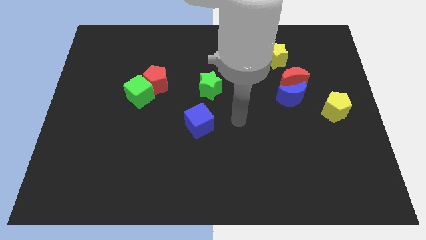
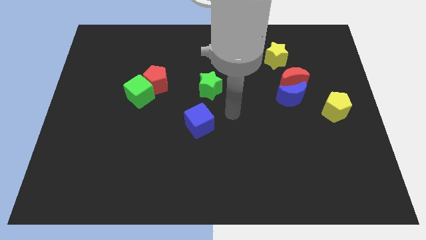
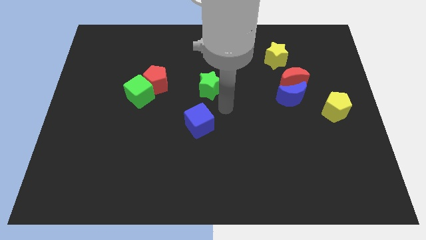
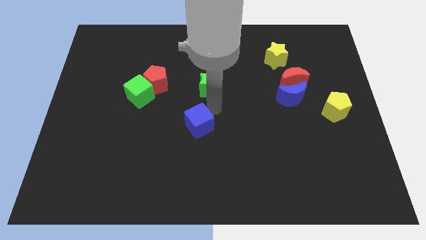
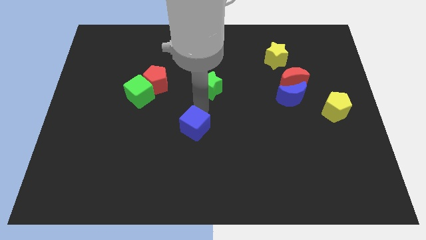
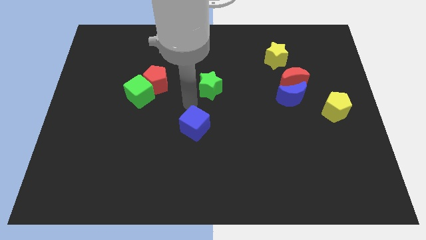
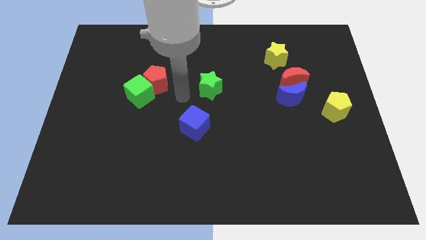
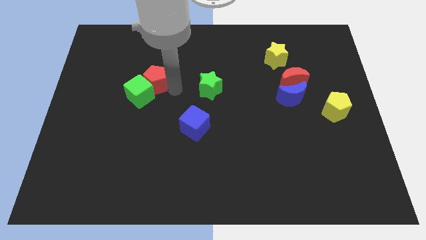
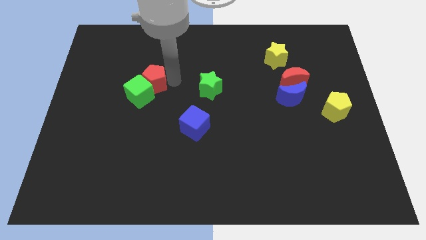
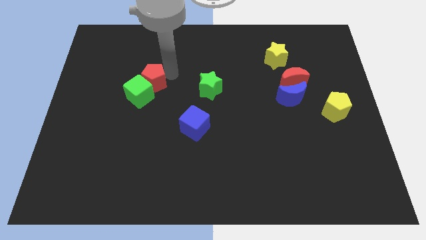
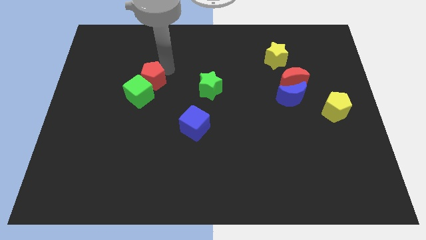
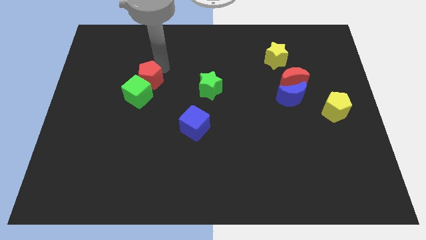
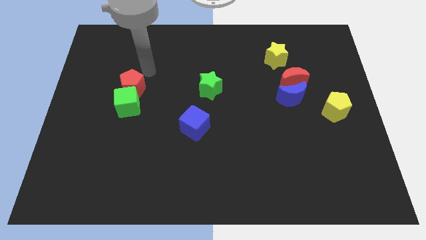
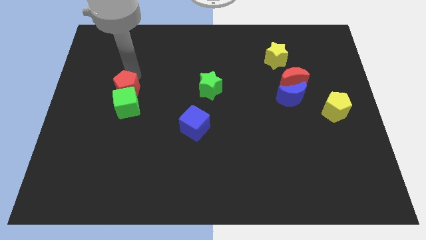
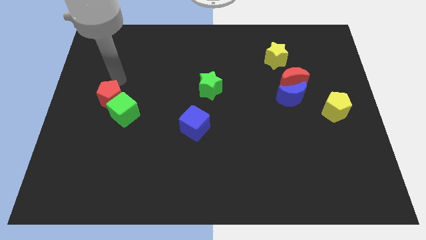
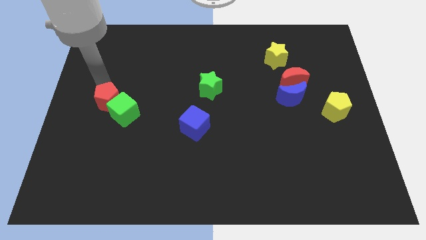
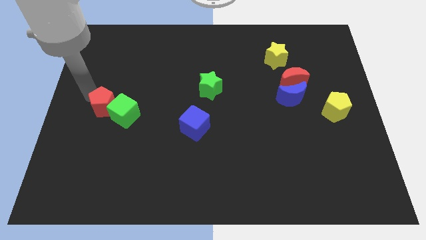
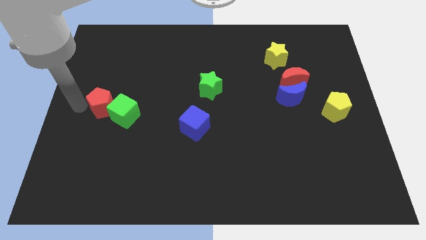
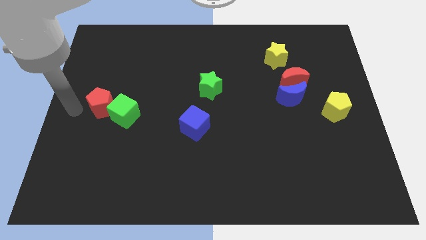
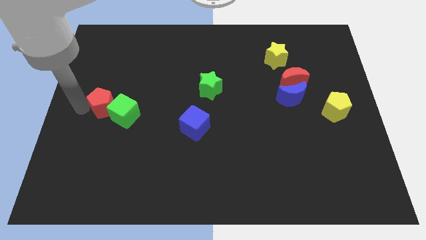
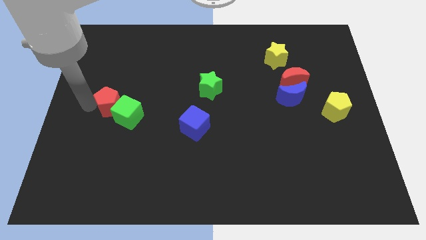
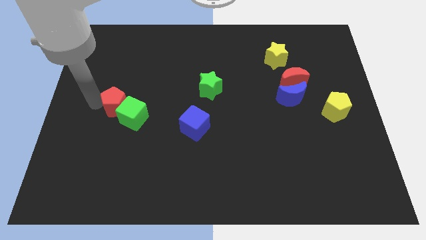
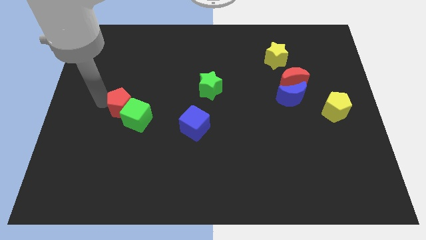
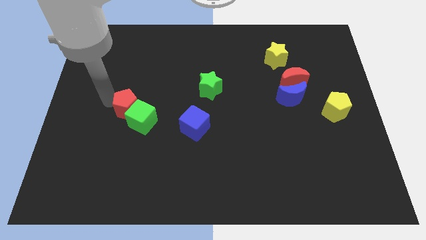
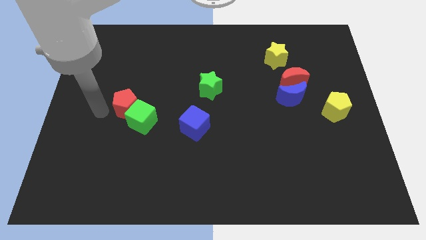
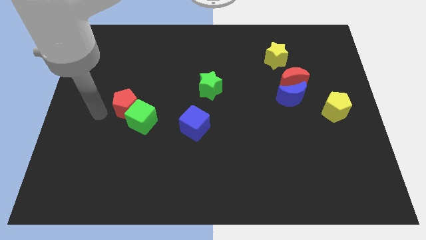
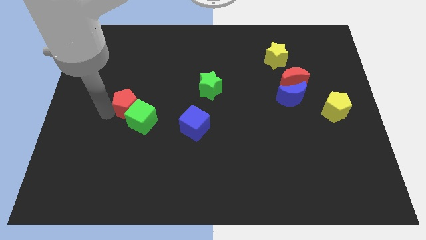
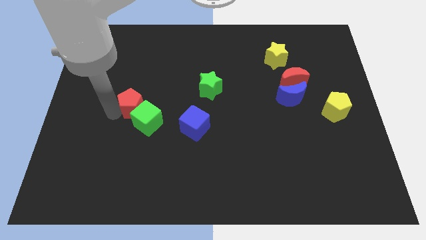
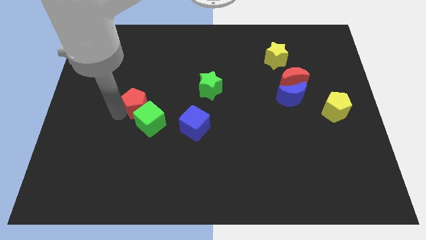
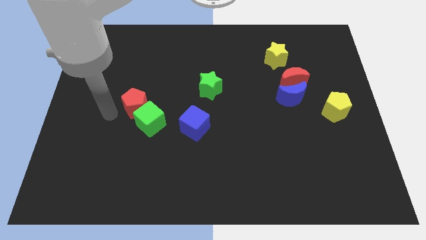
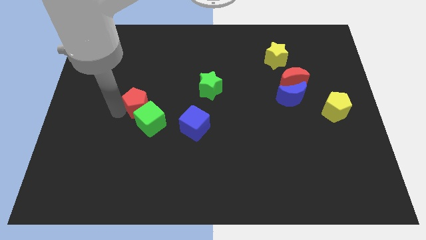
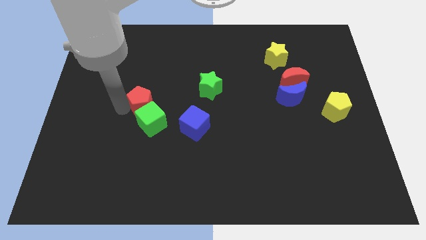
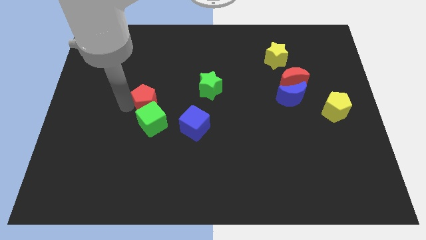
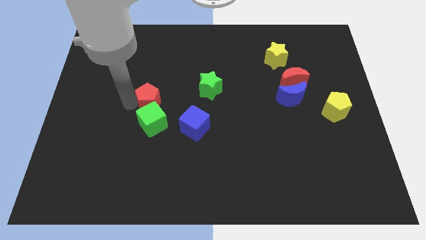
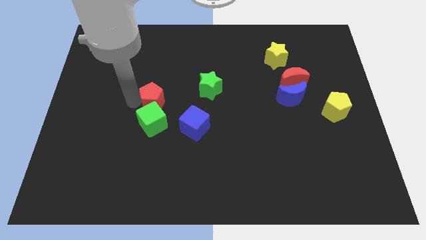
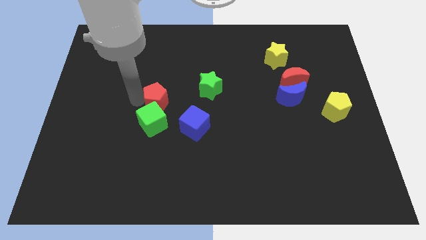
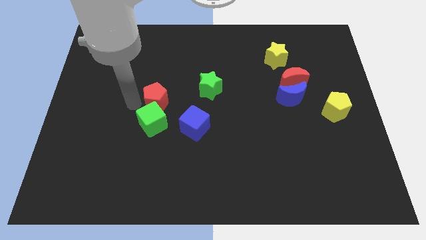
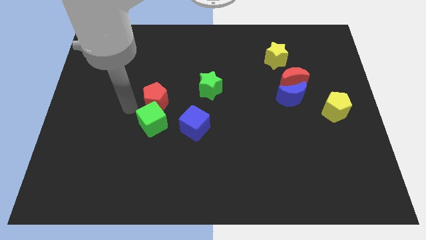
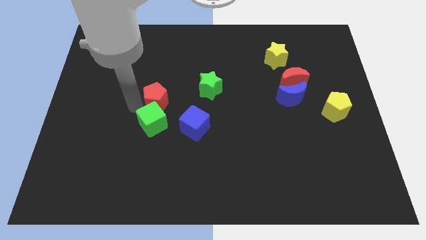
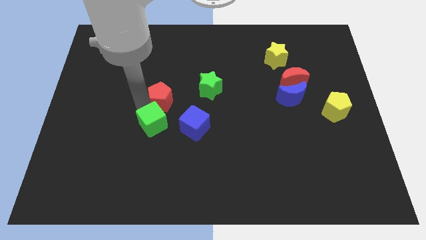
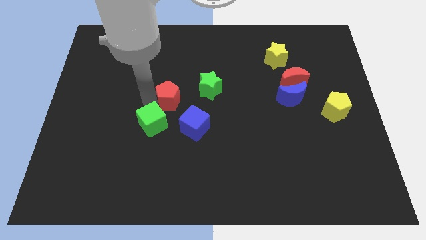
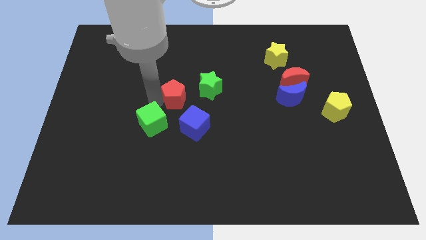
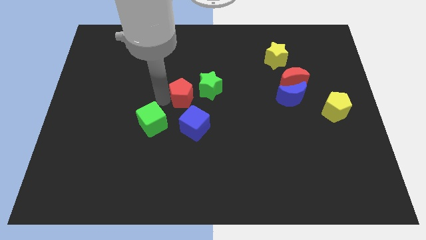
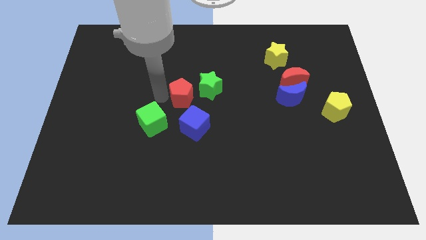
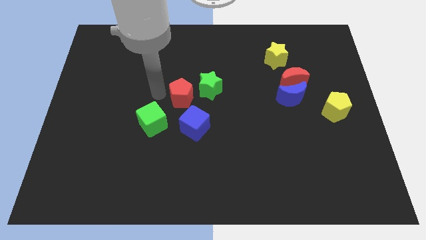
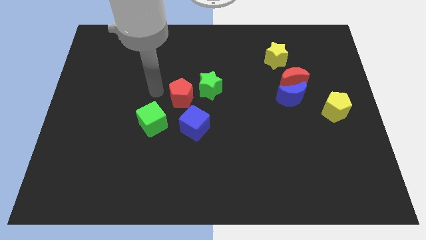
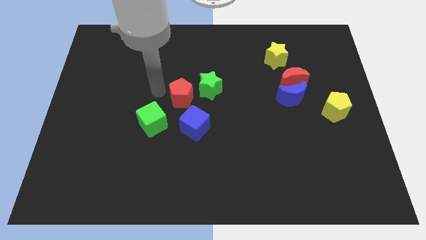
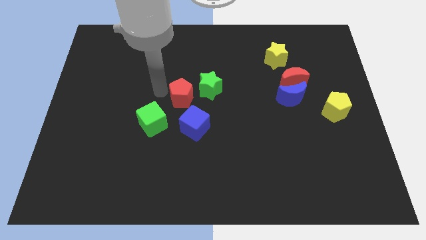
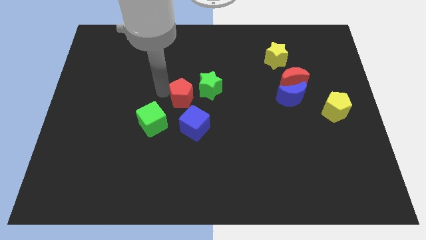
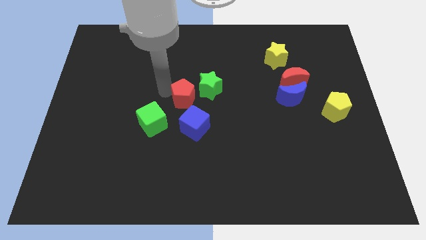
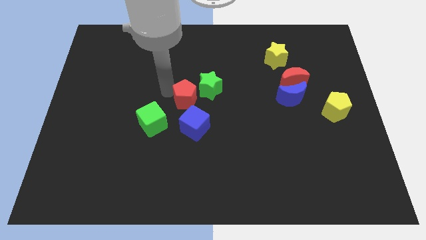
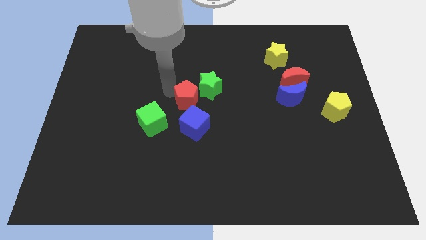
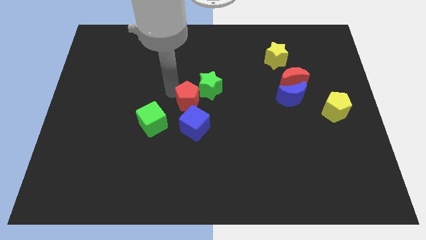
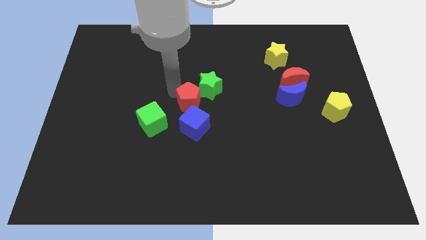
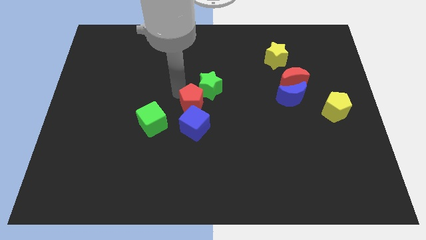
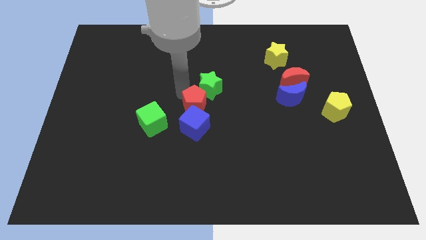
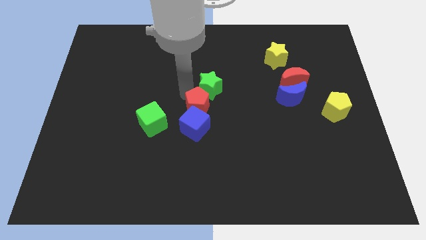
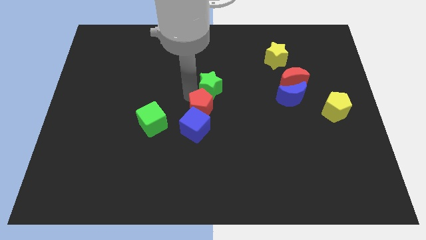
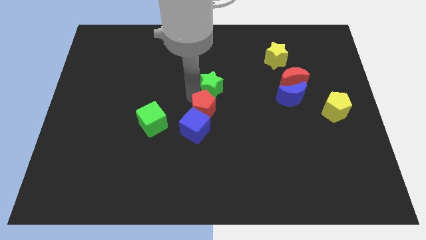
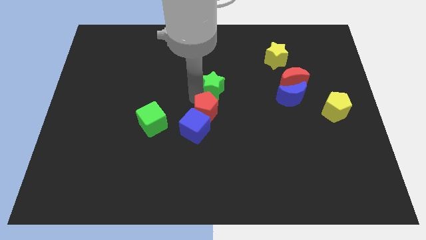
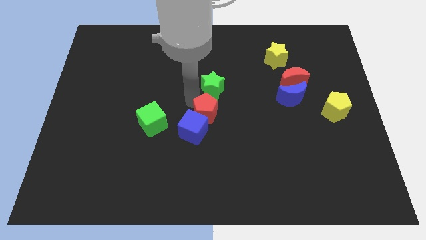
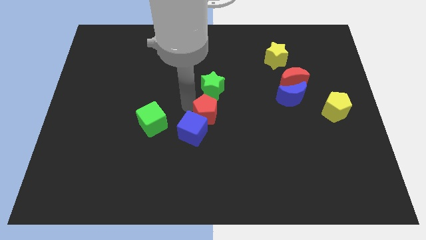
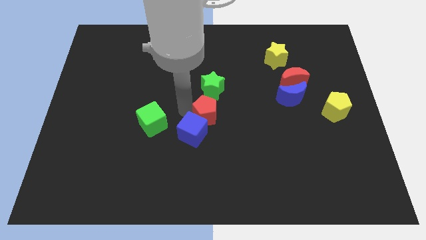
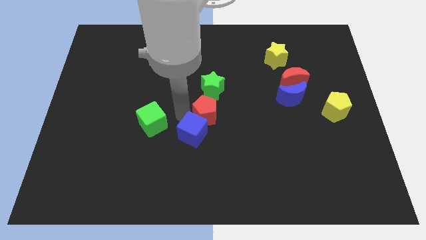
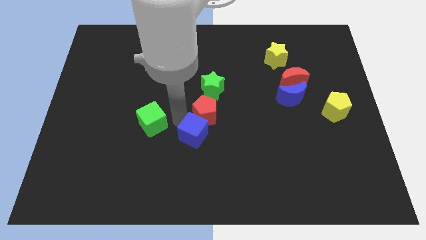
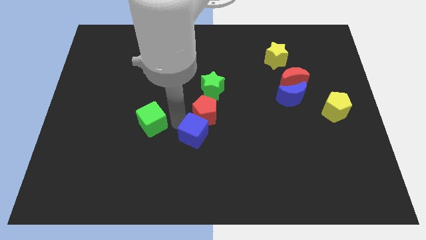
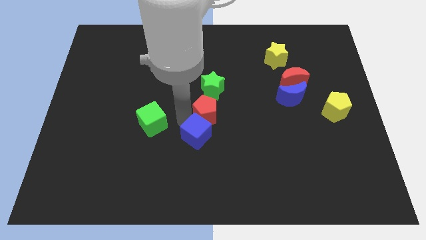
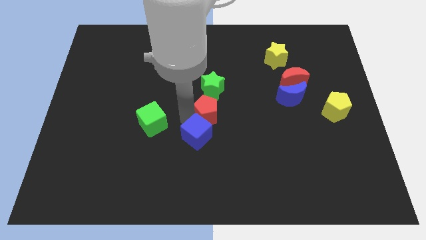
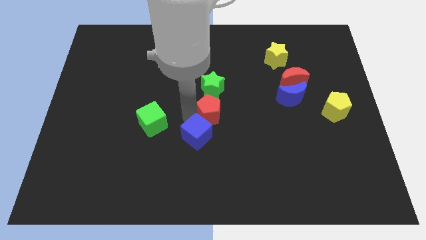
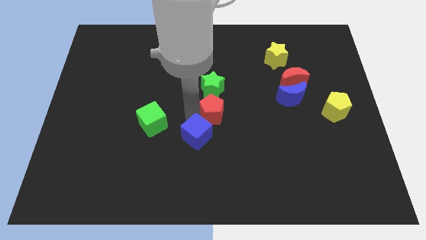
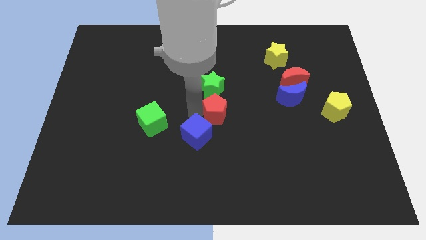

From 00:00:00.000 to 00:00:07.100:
slide the red pentagon diagonally down and to the right of the green star

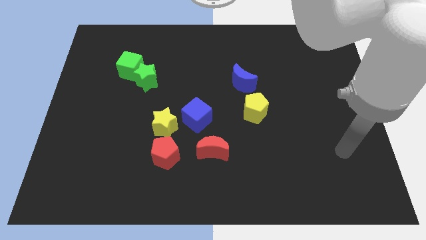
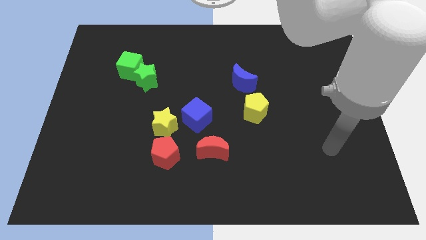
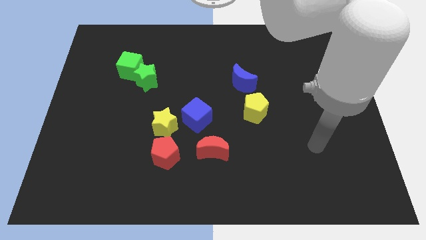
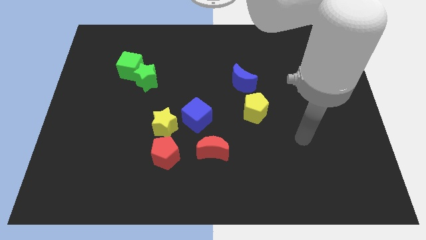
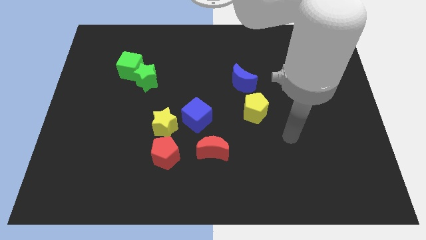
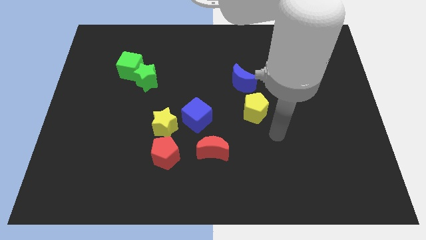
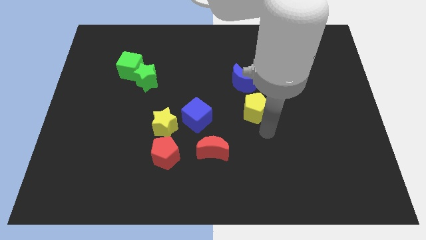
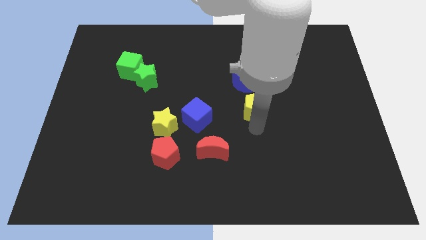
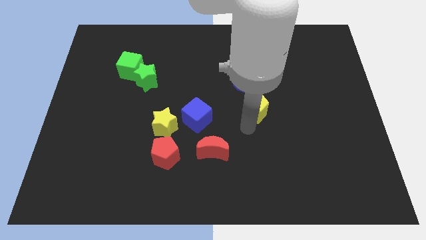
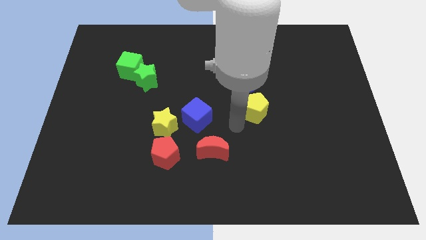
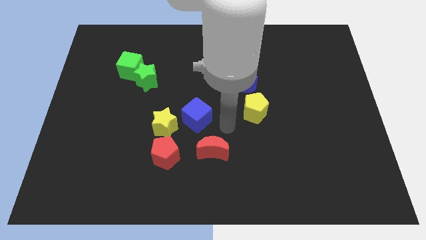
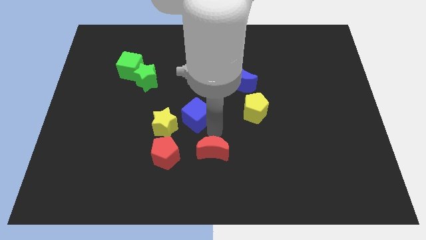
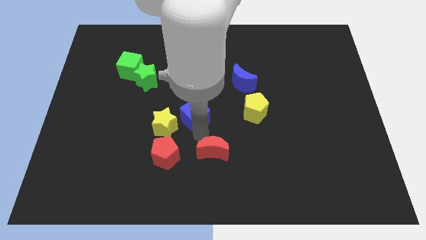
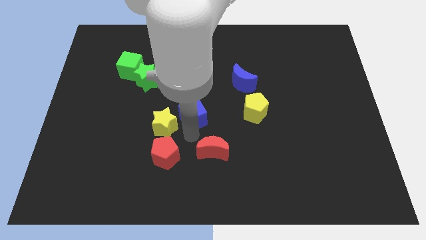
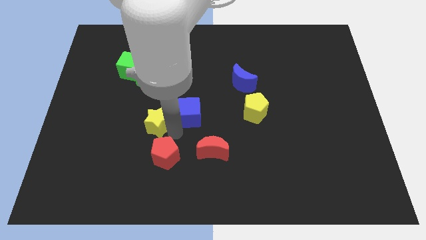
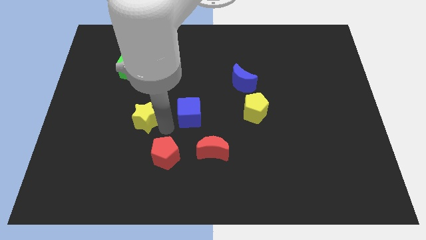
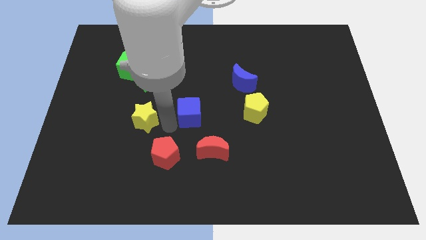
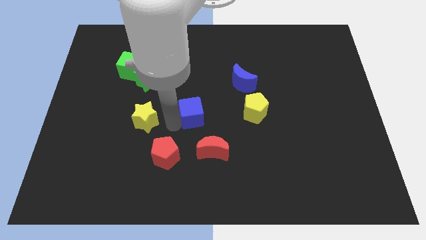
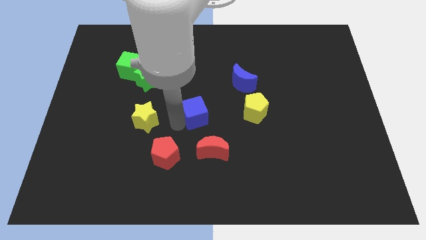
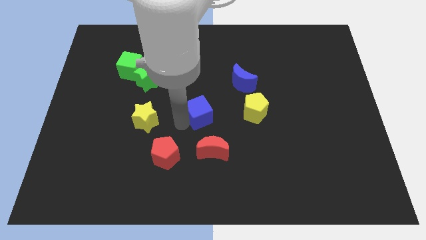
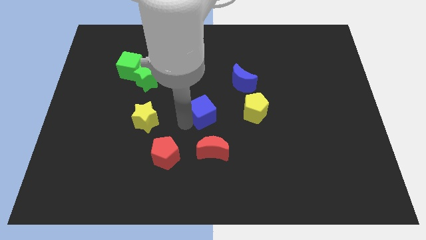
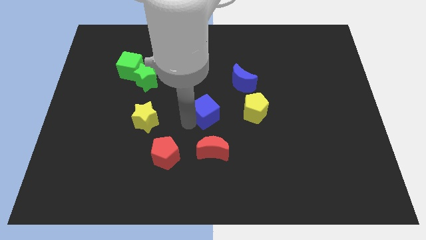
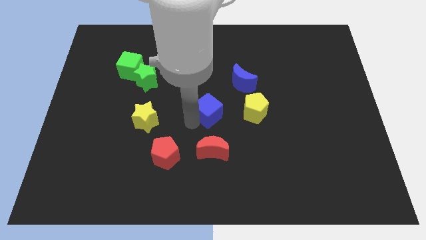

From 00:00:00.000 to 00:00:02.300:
push the blue cube diagonally down and to the left of the blue moon
